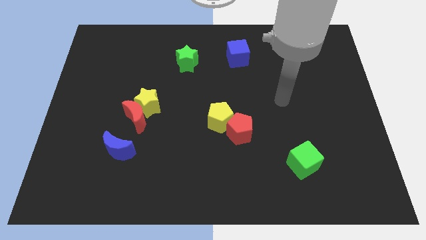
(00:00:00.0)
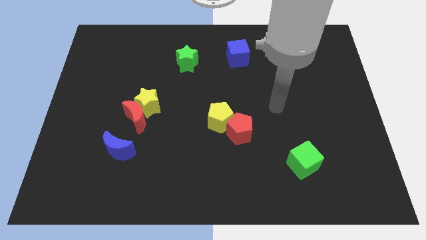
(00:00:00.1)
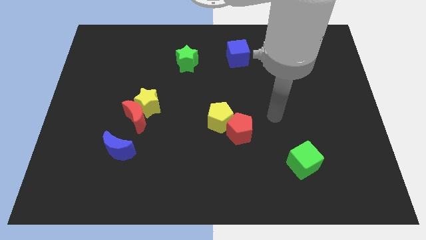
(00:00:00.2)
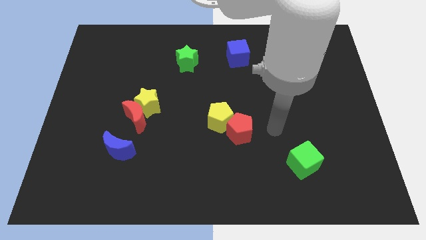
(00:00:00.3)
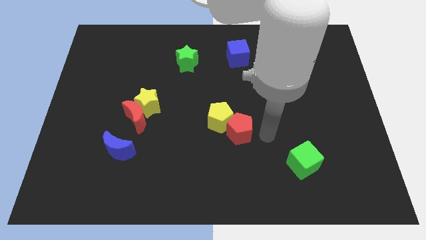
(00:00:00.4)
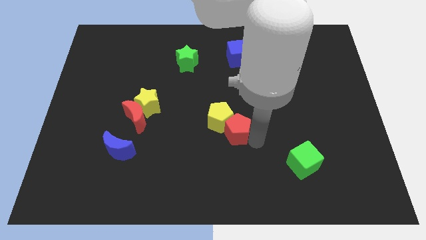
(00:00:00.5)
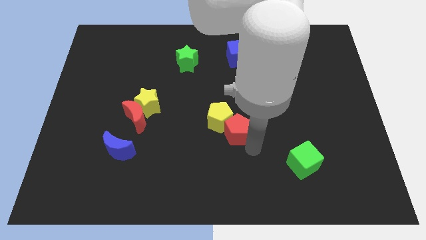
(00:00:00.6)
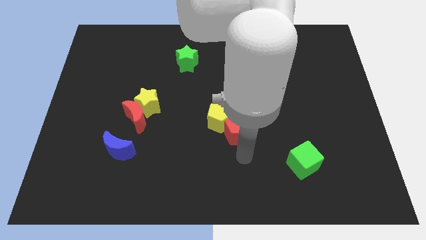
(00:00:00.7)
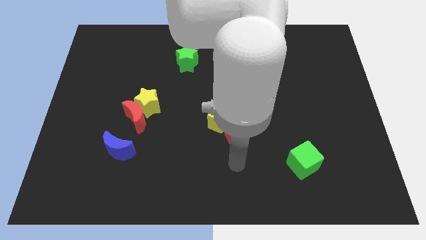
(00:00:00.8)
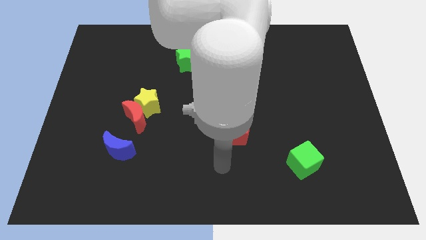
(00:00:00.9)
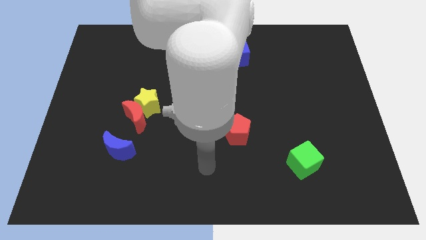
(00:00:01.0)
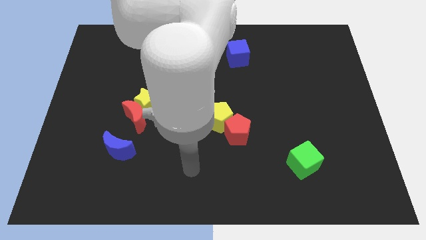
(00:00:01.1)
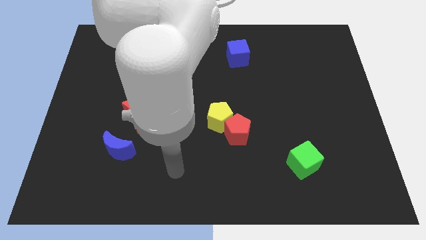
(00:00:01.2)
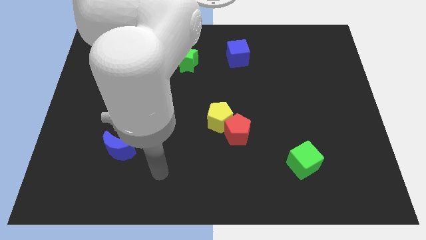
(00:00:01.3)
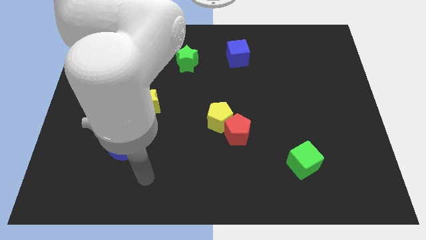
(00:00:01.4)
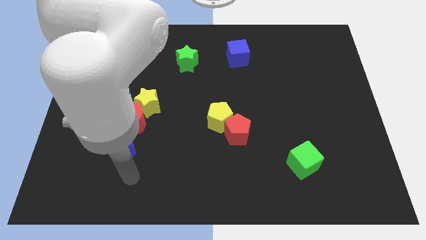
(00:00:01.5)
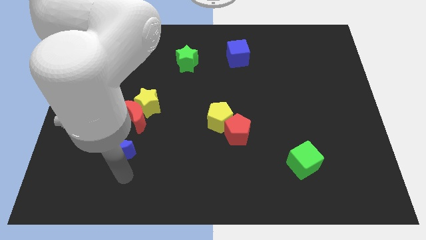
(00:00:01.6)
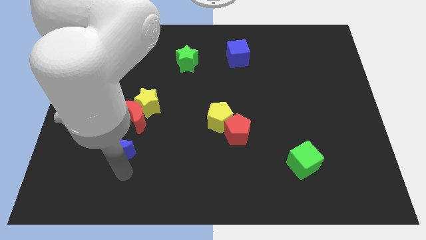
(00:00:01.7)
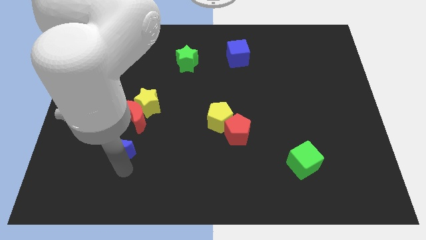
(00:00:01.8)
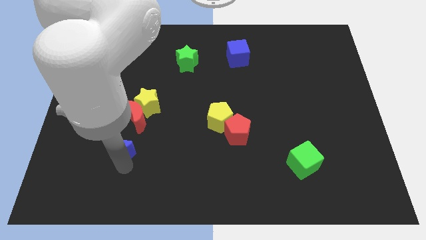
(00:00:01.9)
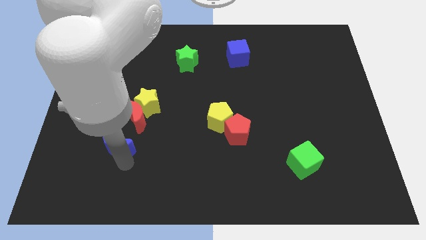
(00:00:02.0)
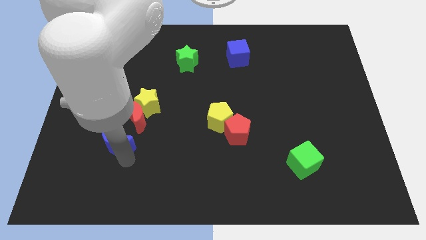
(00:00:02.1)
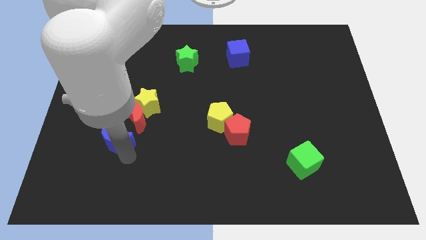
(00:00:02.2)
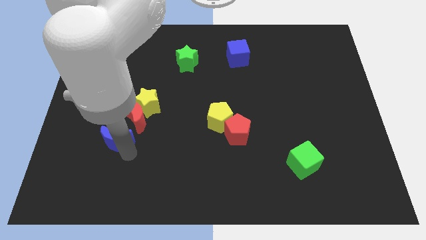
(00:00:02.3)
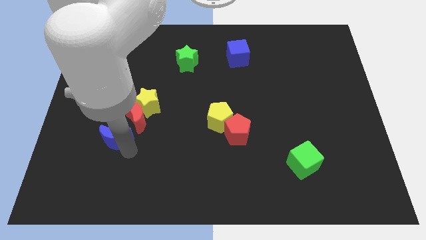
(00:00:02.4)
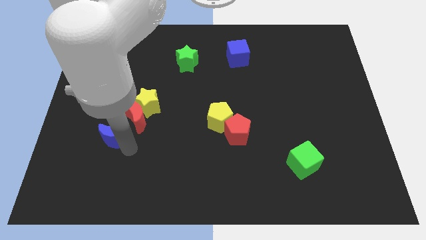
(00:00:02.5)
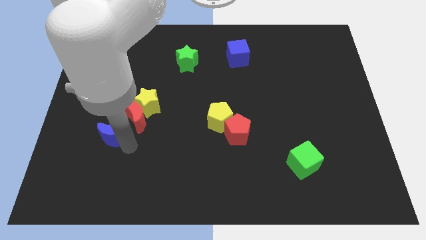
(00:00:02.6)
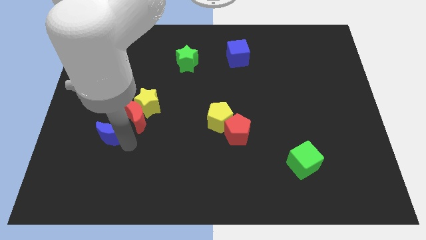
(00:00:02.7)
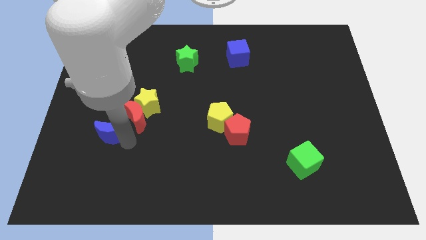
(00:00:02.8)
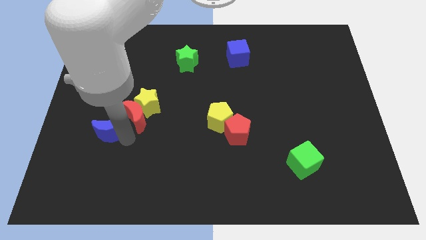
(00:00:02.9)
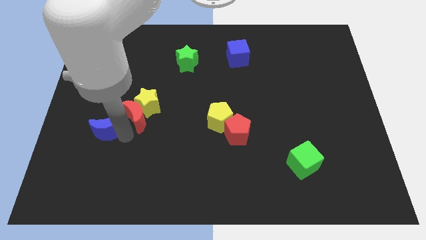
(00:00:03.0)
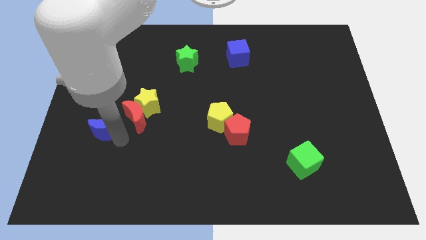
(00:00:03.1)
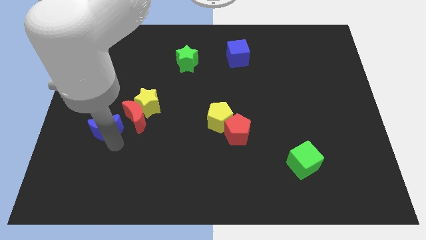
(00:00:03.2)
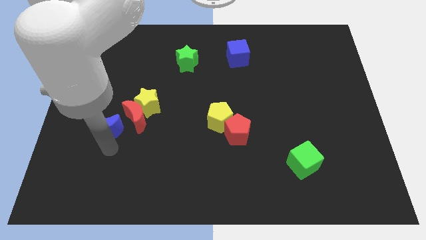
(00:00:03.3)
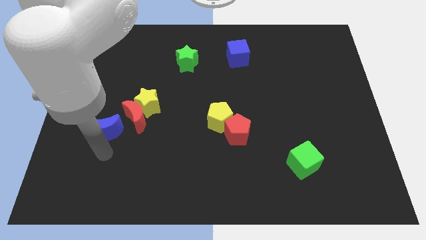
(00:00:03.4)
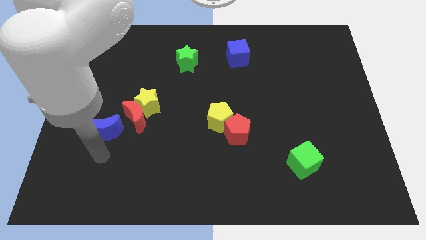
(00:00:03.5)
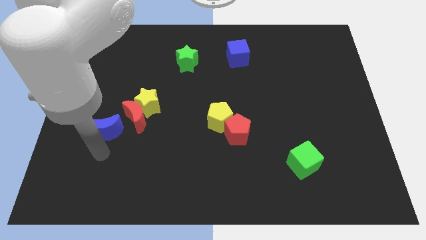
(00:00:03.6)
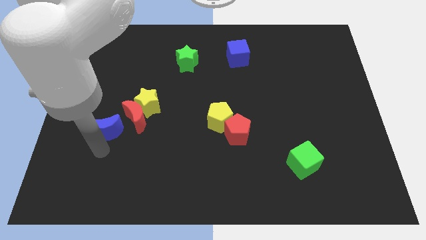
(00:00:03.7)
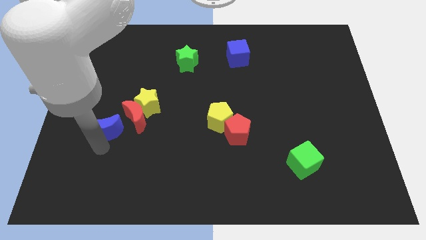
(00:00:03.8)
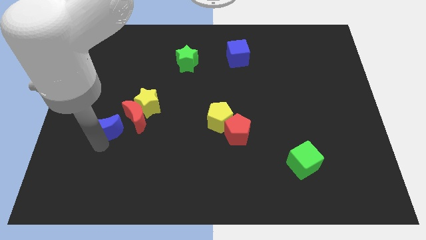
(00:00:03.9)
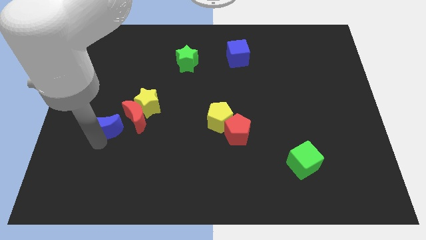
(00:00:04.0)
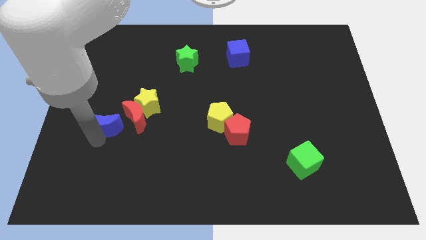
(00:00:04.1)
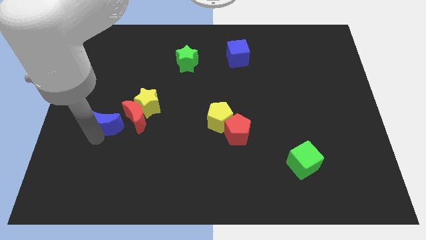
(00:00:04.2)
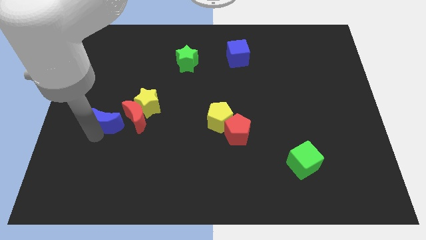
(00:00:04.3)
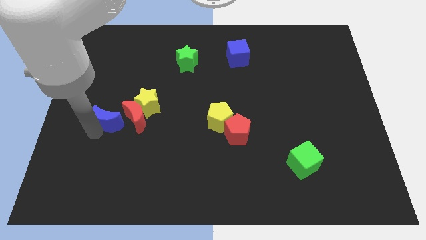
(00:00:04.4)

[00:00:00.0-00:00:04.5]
push the blue moon a little bit upwards

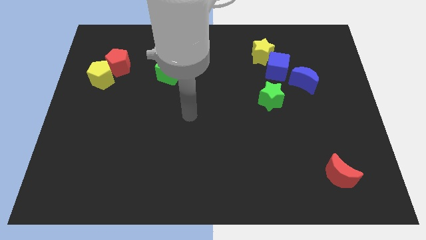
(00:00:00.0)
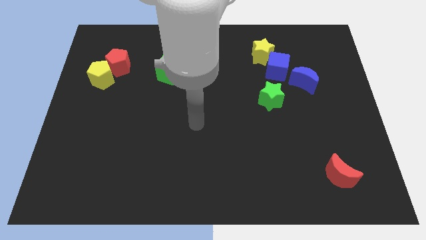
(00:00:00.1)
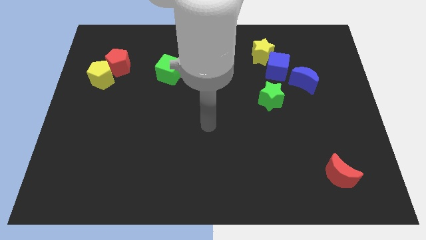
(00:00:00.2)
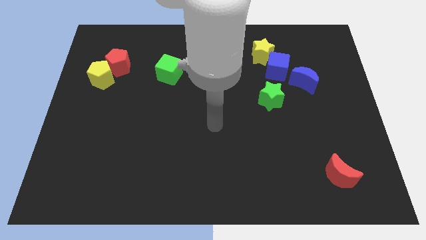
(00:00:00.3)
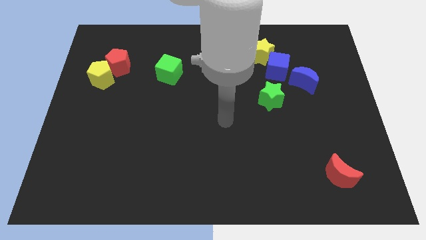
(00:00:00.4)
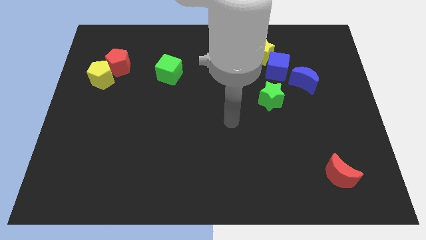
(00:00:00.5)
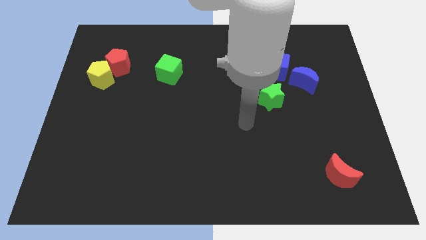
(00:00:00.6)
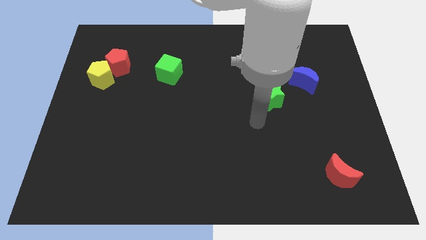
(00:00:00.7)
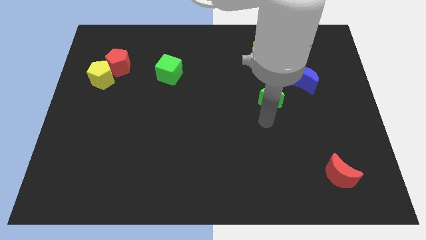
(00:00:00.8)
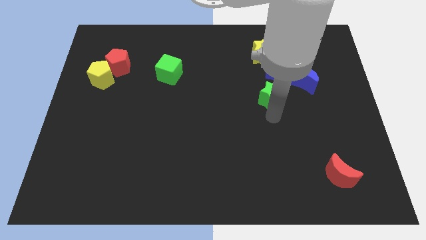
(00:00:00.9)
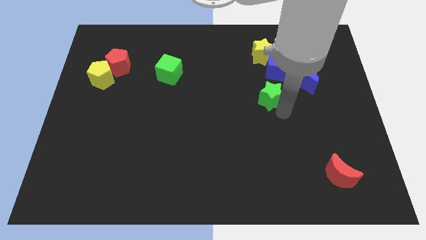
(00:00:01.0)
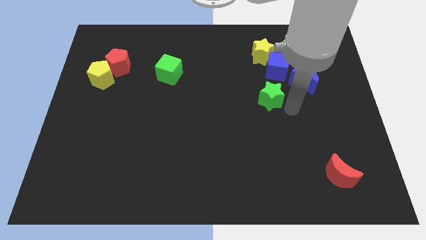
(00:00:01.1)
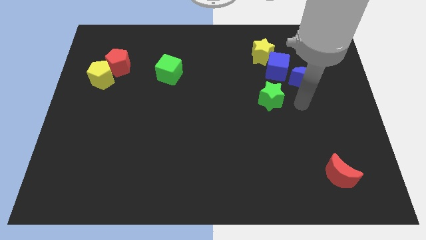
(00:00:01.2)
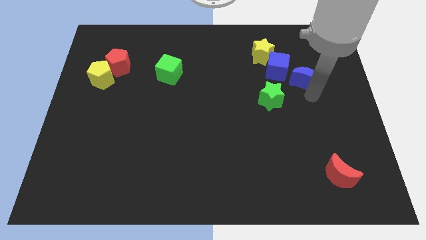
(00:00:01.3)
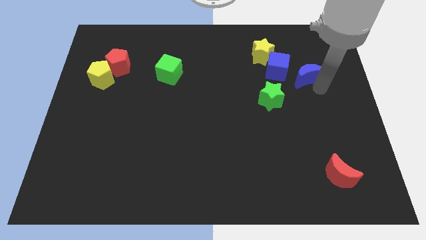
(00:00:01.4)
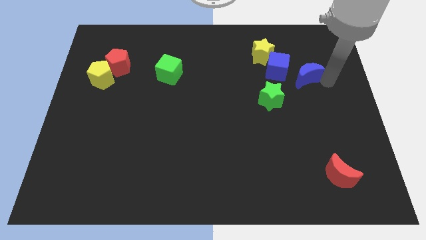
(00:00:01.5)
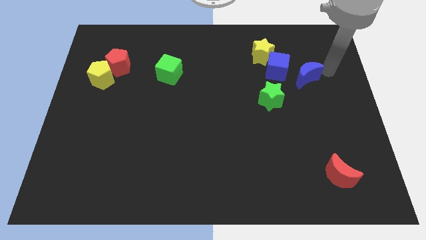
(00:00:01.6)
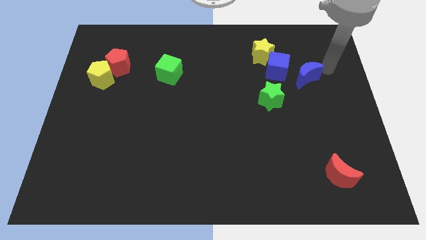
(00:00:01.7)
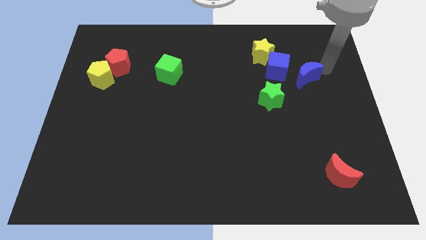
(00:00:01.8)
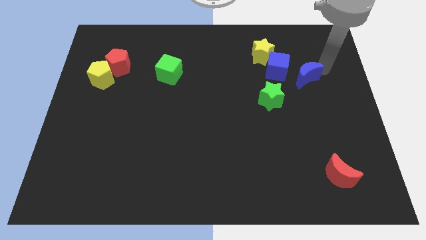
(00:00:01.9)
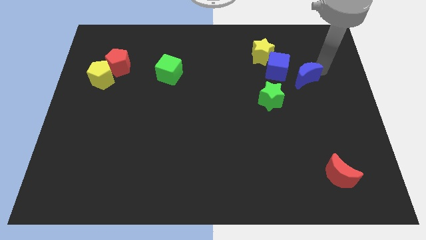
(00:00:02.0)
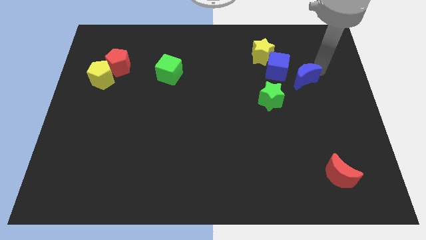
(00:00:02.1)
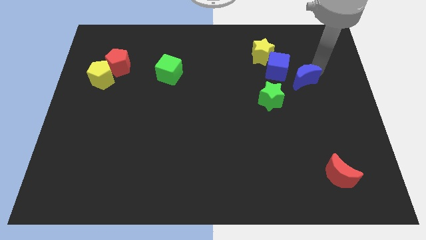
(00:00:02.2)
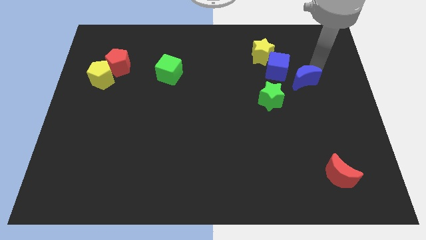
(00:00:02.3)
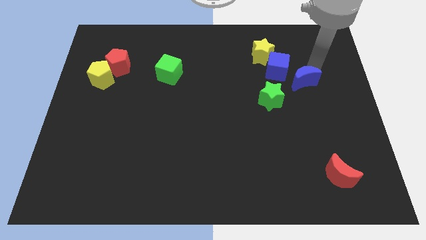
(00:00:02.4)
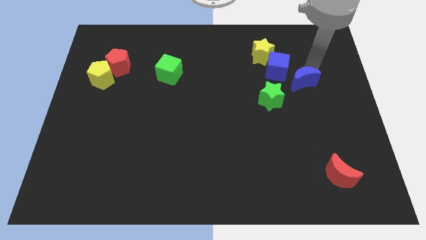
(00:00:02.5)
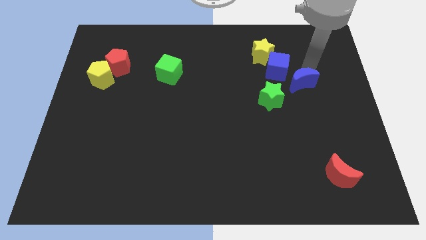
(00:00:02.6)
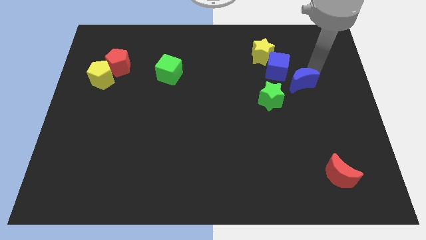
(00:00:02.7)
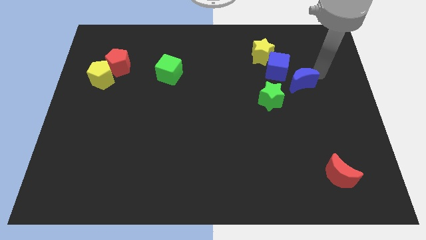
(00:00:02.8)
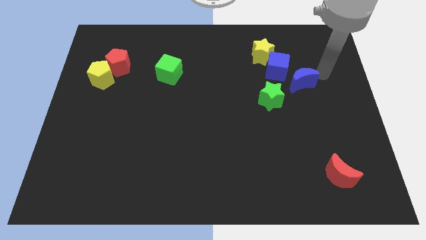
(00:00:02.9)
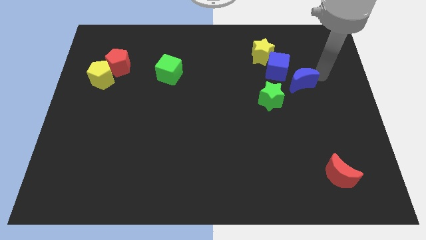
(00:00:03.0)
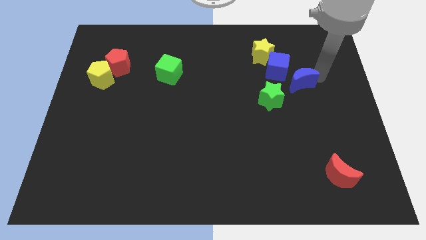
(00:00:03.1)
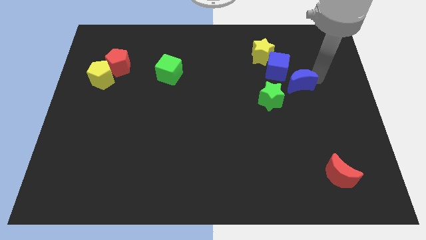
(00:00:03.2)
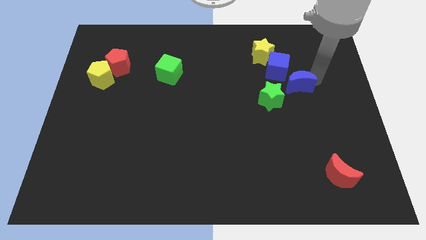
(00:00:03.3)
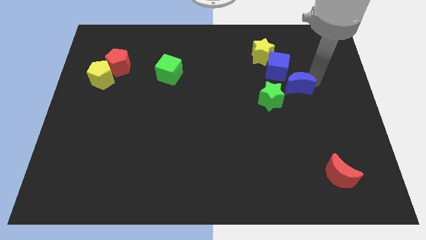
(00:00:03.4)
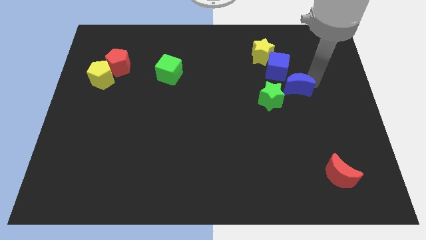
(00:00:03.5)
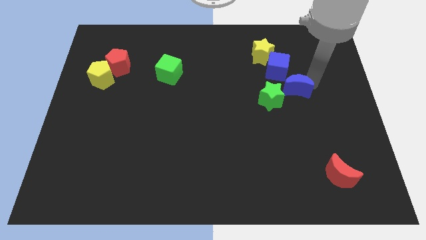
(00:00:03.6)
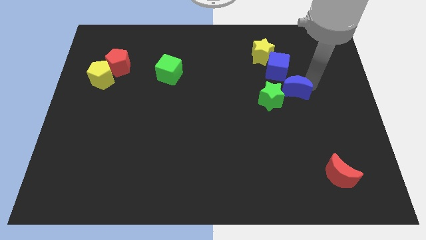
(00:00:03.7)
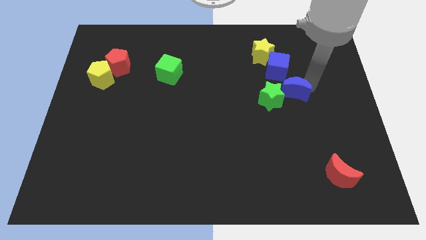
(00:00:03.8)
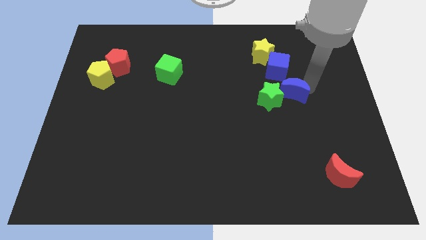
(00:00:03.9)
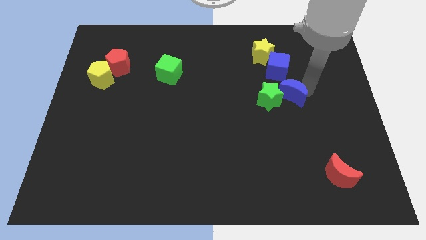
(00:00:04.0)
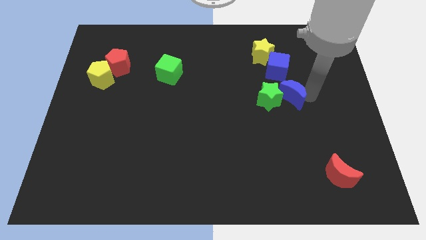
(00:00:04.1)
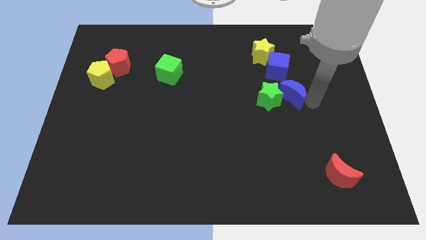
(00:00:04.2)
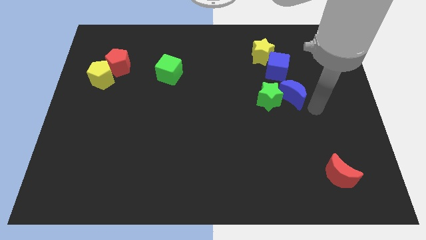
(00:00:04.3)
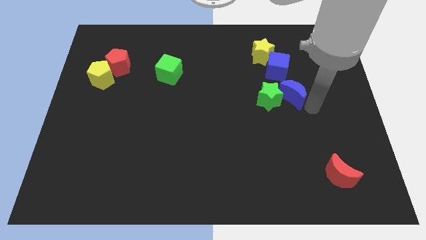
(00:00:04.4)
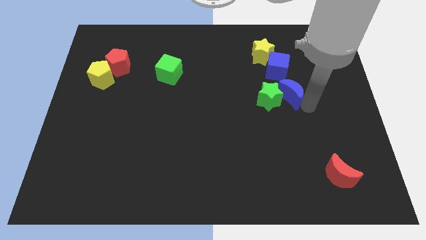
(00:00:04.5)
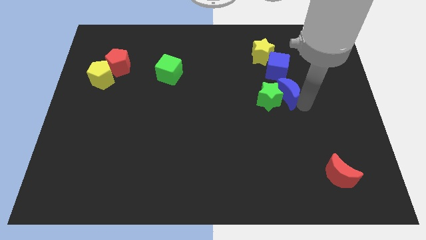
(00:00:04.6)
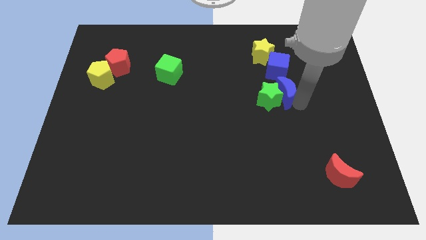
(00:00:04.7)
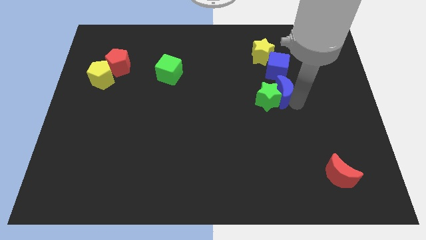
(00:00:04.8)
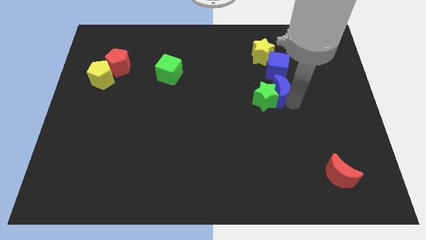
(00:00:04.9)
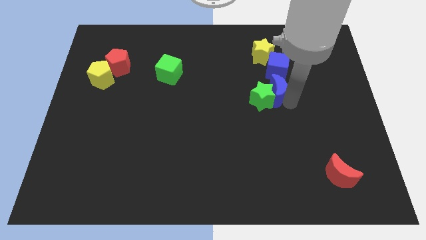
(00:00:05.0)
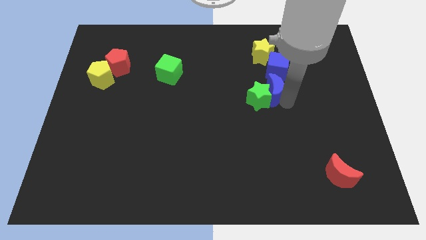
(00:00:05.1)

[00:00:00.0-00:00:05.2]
move the blue moon left a bit
